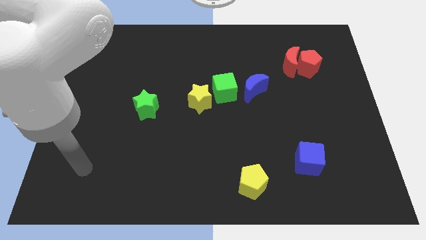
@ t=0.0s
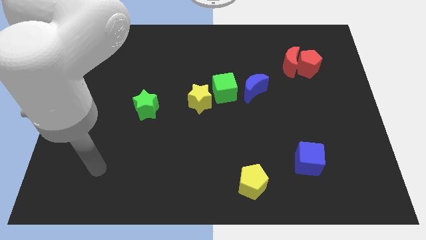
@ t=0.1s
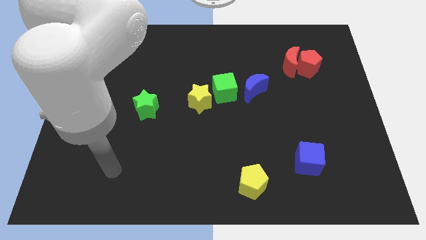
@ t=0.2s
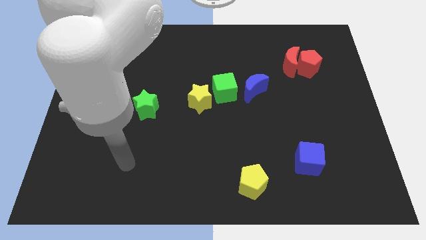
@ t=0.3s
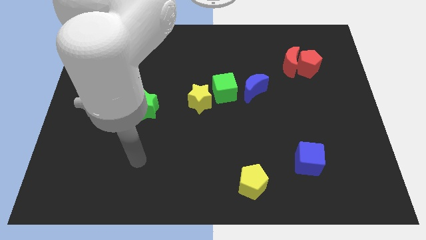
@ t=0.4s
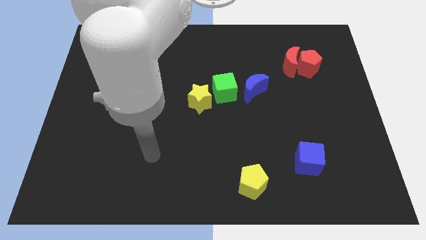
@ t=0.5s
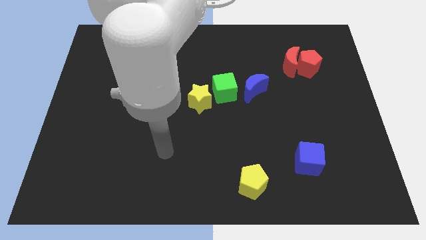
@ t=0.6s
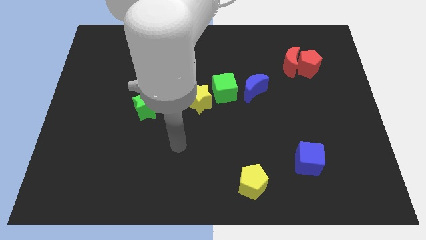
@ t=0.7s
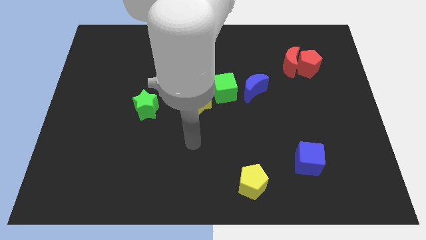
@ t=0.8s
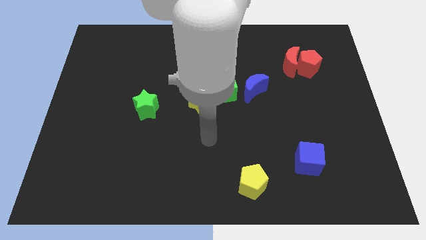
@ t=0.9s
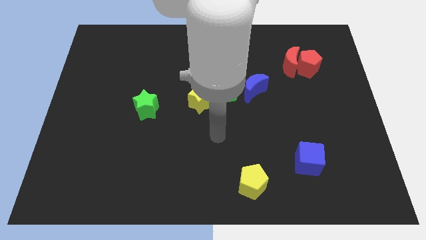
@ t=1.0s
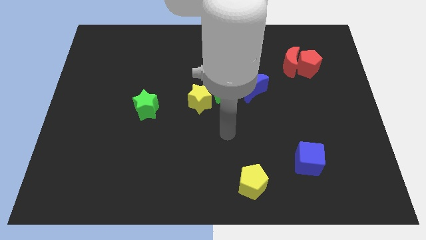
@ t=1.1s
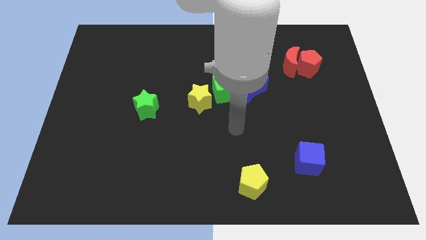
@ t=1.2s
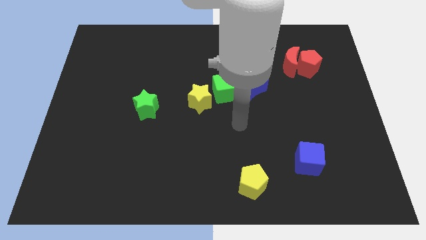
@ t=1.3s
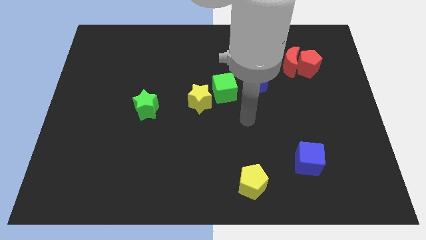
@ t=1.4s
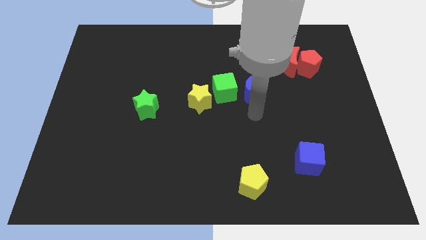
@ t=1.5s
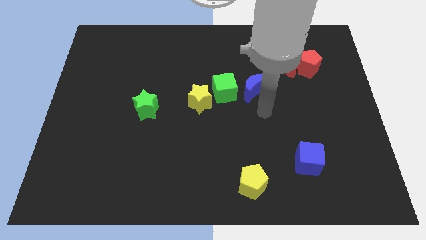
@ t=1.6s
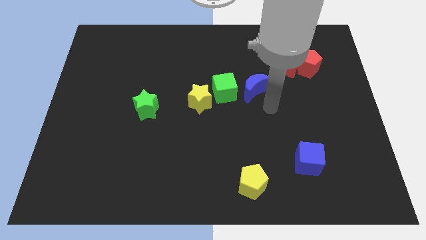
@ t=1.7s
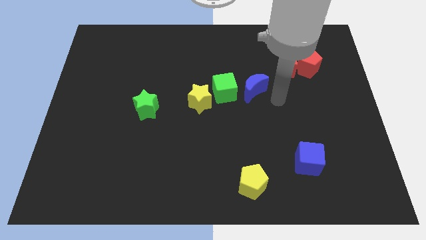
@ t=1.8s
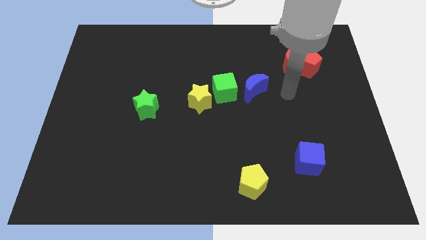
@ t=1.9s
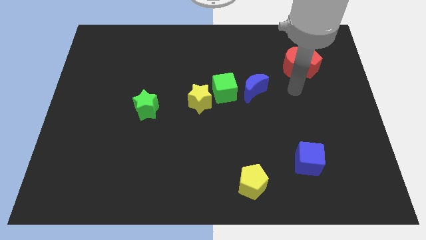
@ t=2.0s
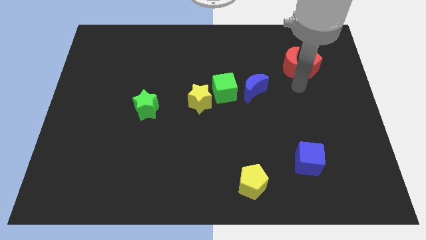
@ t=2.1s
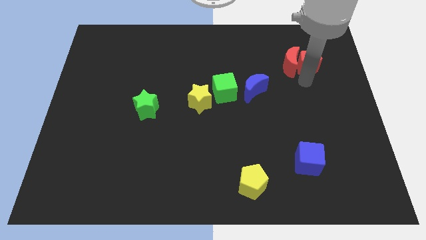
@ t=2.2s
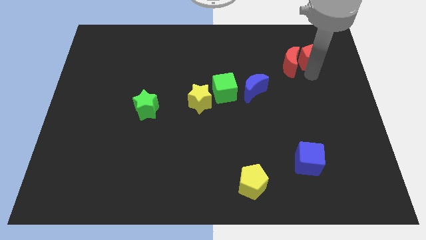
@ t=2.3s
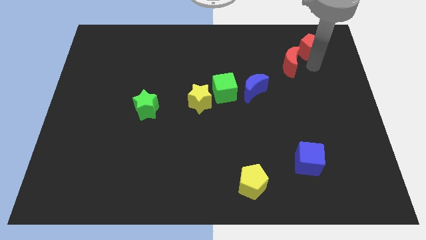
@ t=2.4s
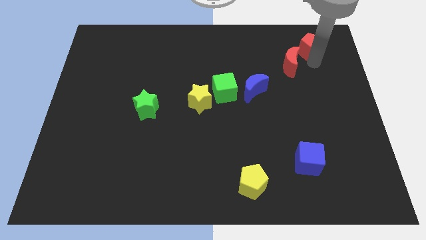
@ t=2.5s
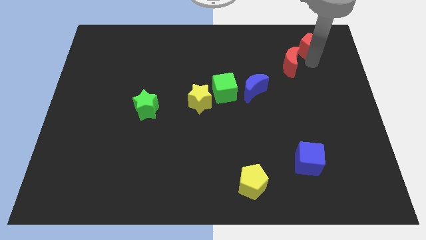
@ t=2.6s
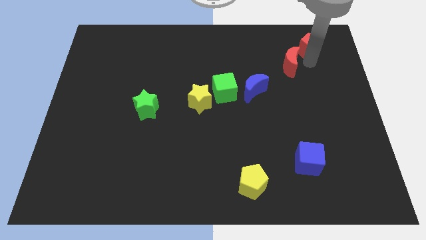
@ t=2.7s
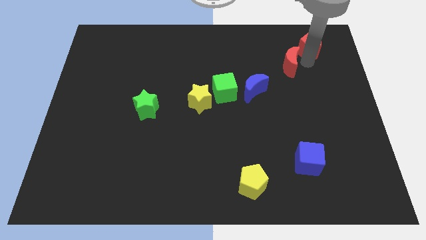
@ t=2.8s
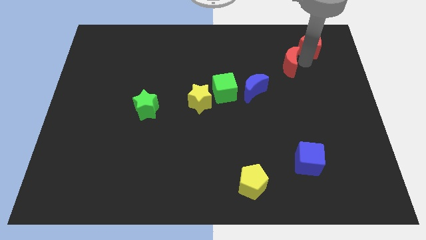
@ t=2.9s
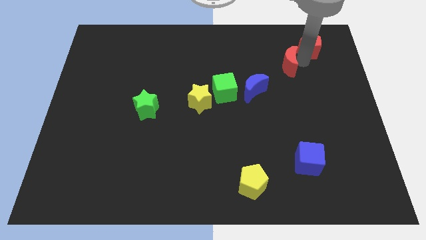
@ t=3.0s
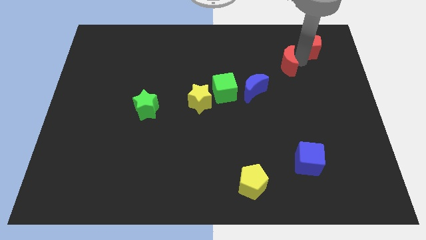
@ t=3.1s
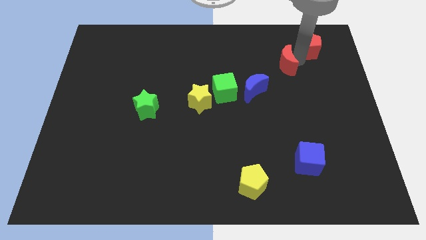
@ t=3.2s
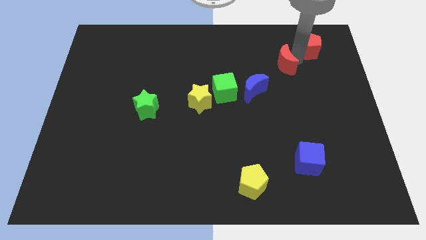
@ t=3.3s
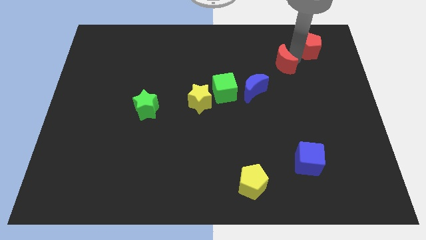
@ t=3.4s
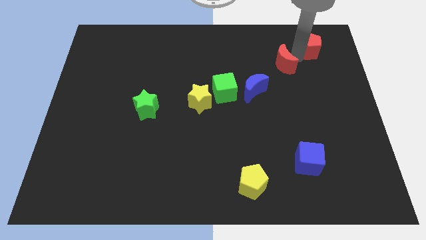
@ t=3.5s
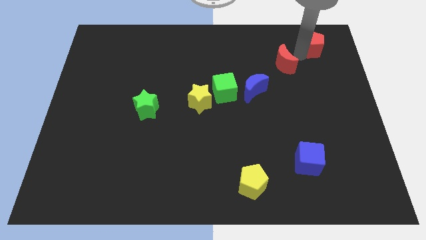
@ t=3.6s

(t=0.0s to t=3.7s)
separate the red moon from the red pentagon

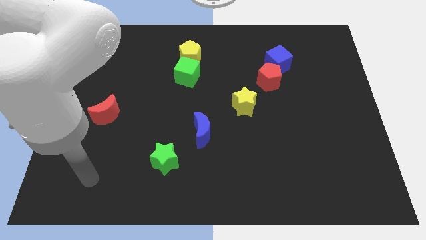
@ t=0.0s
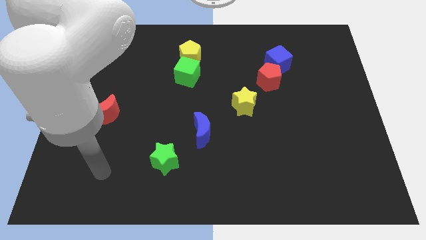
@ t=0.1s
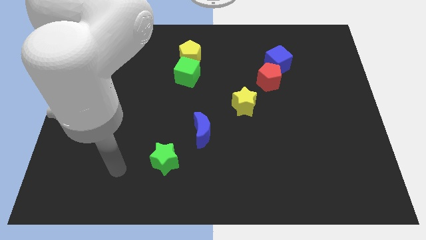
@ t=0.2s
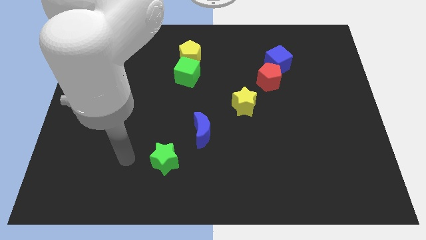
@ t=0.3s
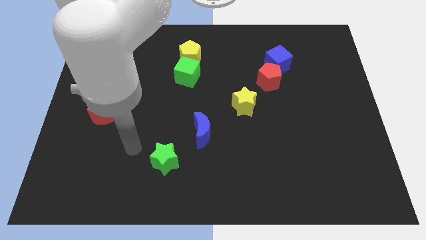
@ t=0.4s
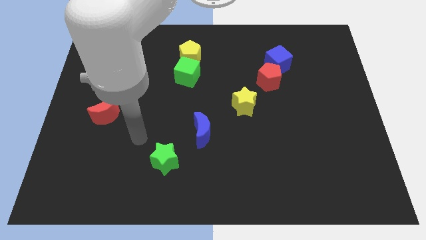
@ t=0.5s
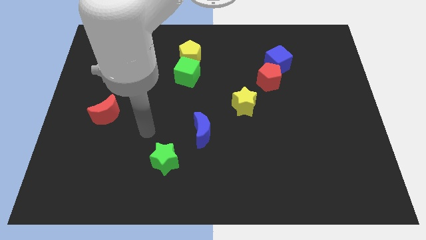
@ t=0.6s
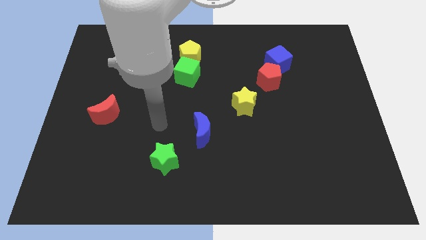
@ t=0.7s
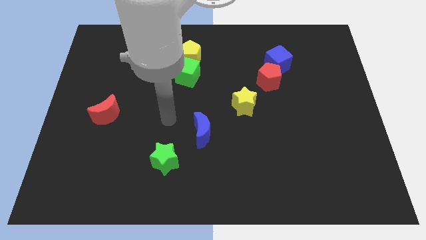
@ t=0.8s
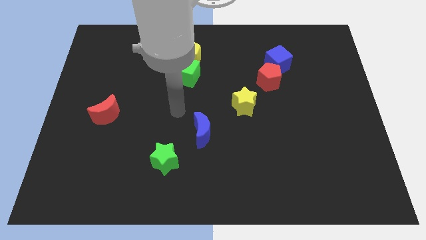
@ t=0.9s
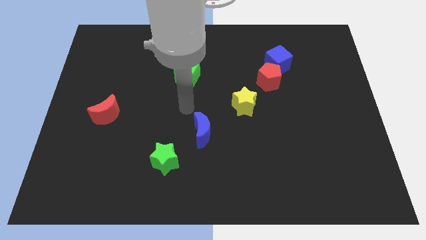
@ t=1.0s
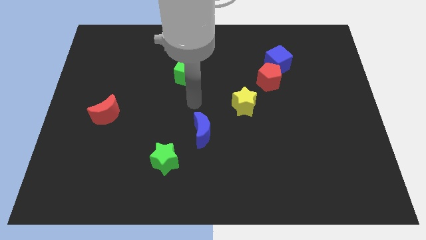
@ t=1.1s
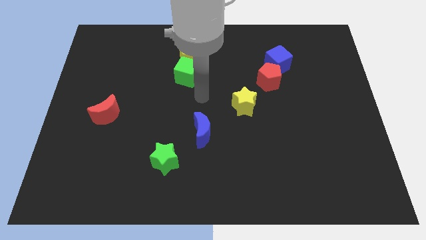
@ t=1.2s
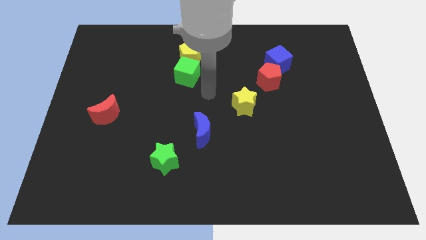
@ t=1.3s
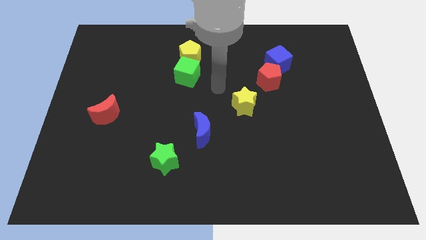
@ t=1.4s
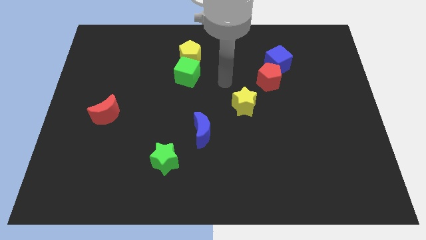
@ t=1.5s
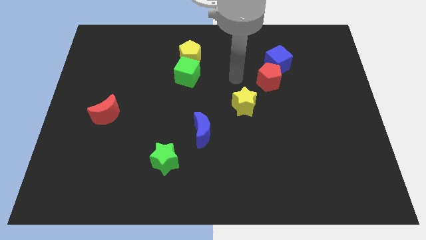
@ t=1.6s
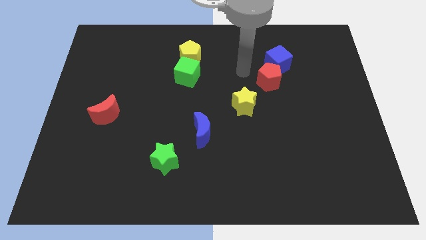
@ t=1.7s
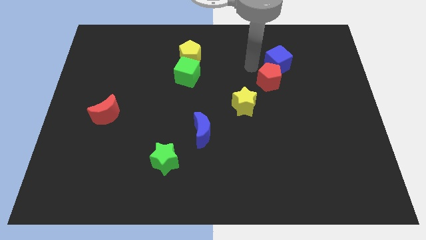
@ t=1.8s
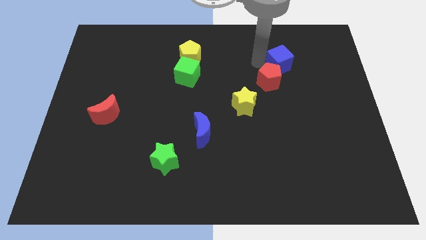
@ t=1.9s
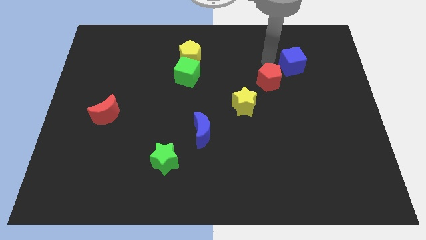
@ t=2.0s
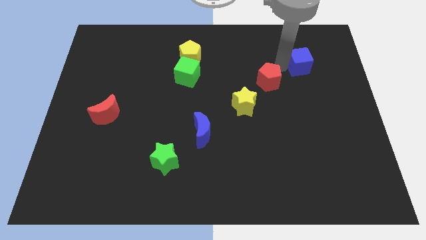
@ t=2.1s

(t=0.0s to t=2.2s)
move the red pentagon away from the blue cube

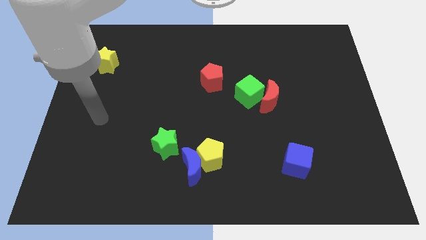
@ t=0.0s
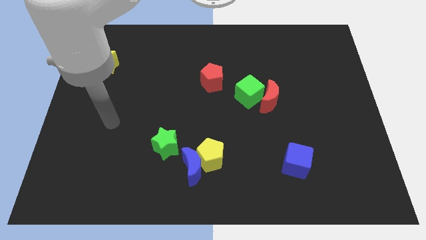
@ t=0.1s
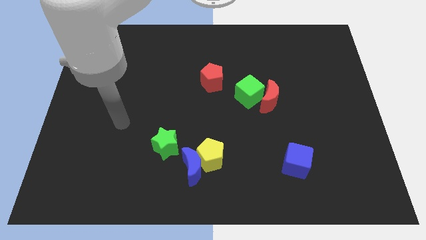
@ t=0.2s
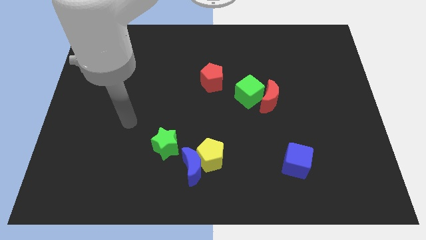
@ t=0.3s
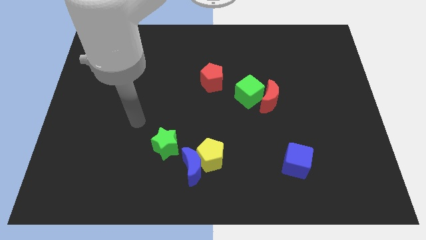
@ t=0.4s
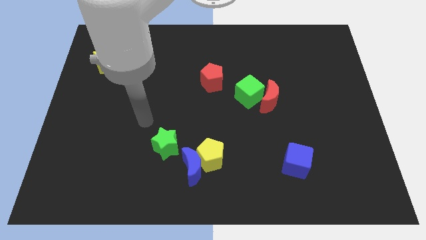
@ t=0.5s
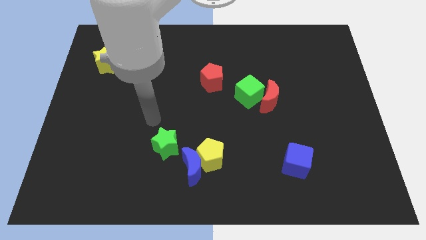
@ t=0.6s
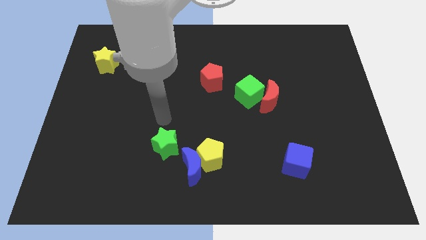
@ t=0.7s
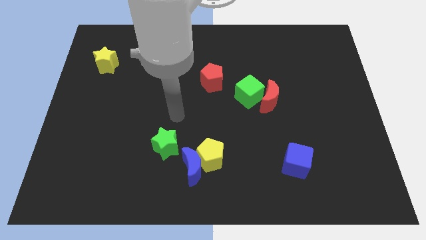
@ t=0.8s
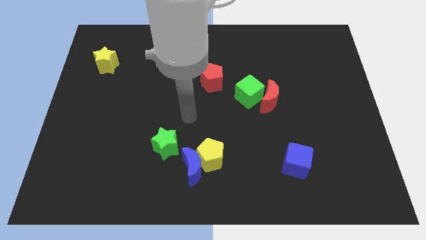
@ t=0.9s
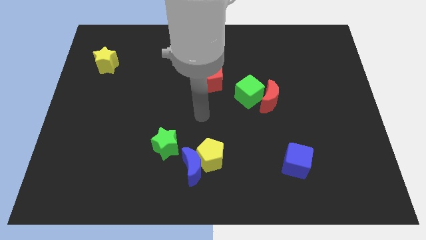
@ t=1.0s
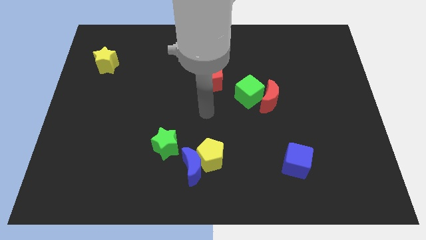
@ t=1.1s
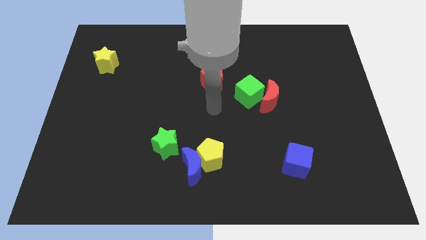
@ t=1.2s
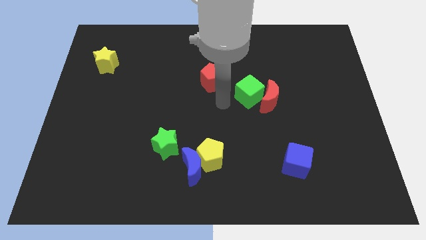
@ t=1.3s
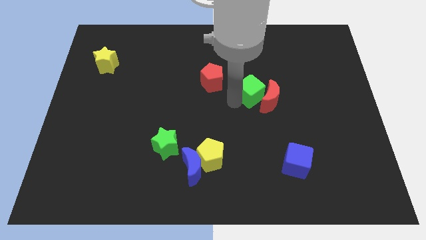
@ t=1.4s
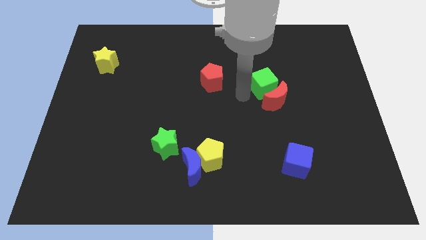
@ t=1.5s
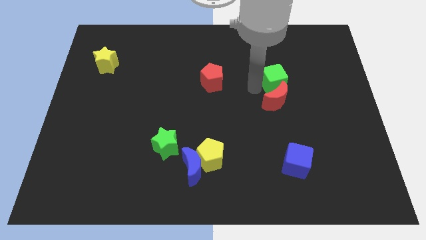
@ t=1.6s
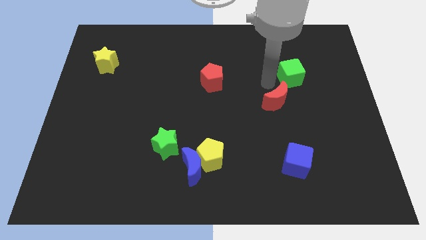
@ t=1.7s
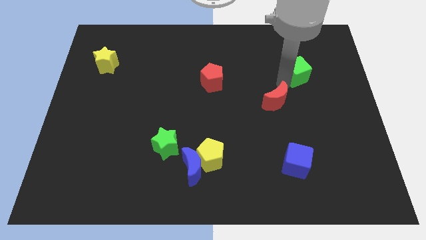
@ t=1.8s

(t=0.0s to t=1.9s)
move the red moon away from the green cube

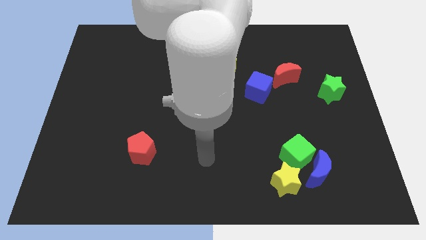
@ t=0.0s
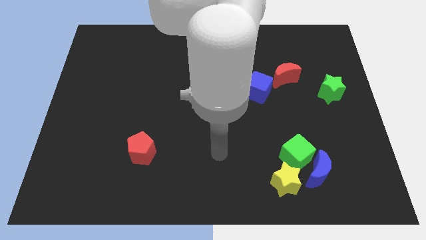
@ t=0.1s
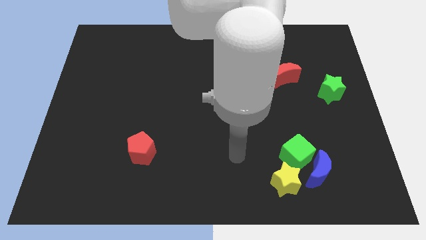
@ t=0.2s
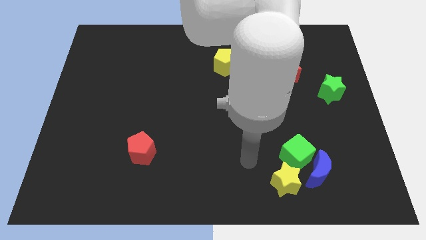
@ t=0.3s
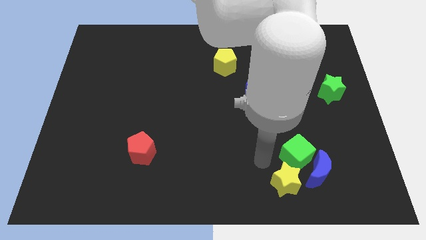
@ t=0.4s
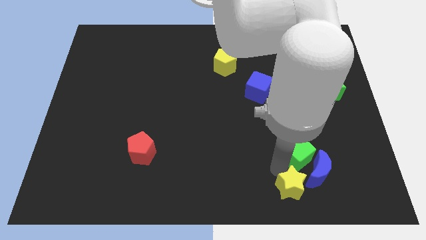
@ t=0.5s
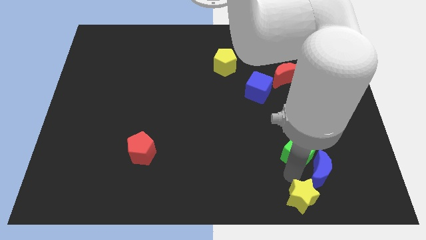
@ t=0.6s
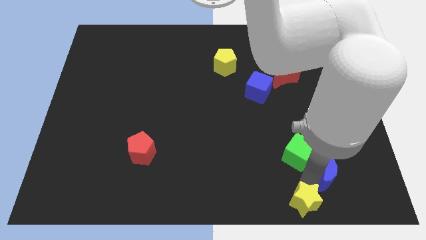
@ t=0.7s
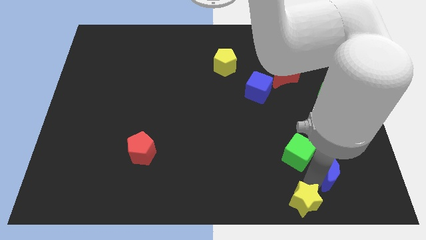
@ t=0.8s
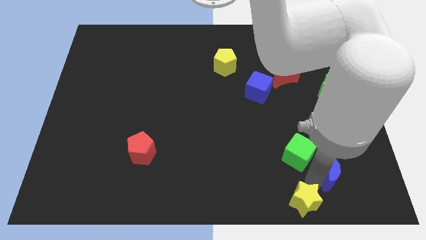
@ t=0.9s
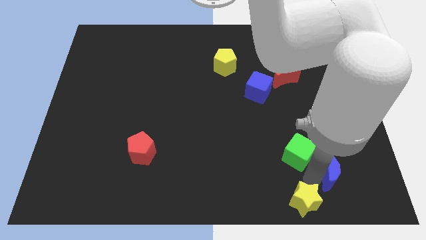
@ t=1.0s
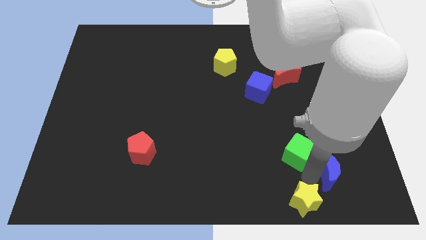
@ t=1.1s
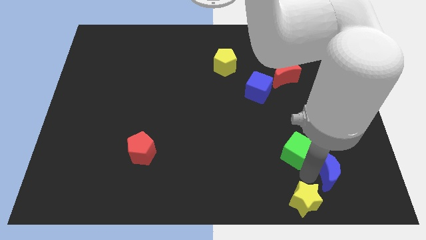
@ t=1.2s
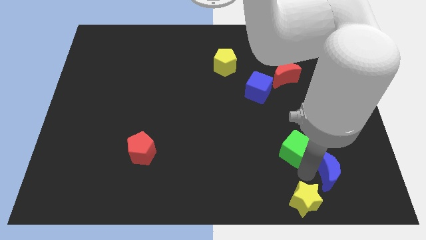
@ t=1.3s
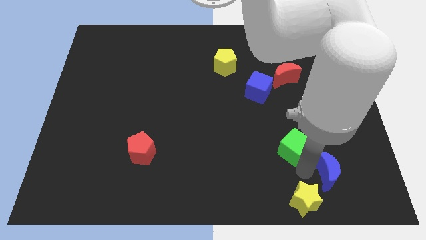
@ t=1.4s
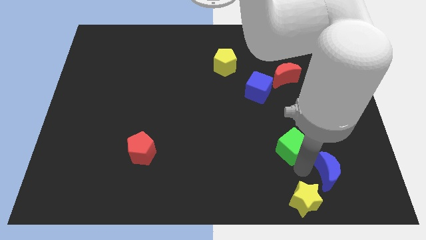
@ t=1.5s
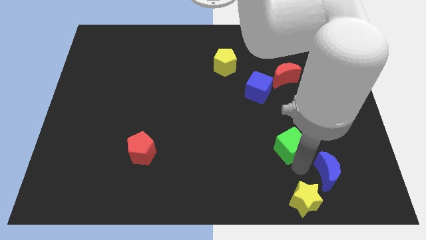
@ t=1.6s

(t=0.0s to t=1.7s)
move the green cube away from the blue moon and yellow star
